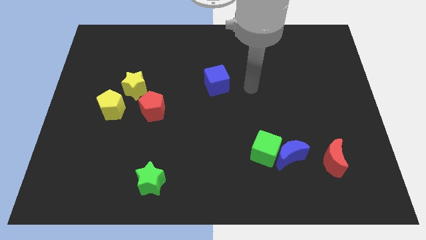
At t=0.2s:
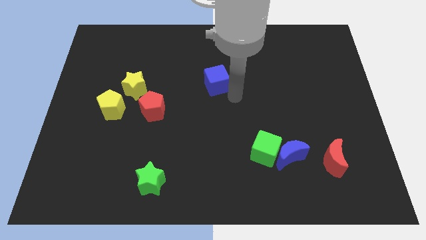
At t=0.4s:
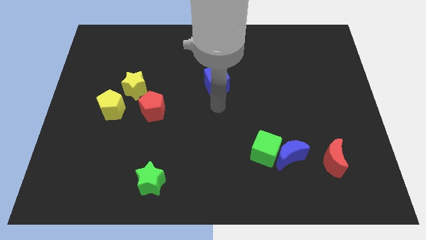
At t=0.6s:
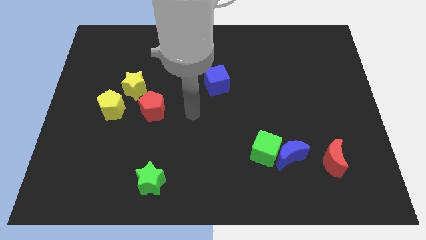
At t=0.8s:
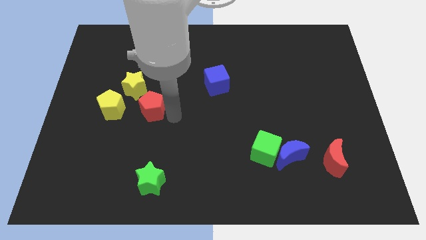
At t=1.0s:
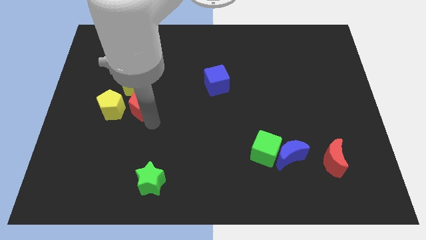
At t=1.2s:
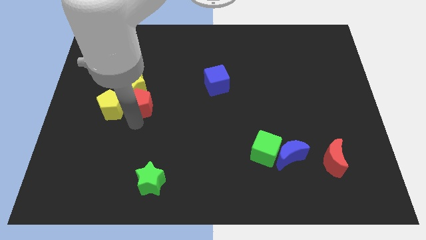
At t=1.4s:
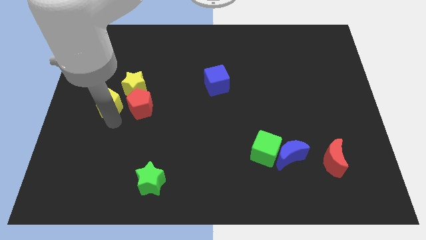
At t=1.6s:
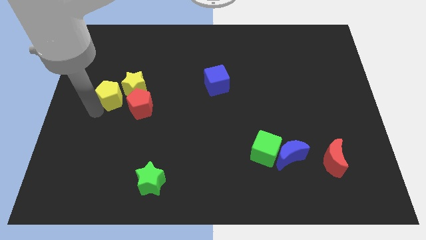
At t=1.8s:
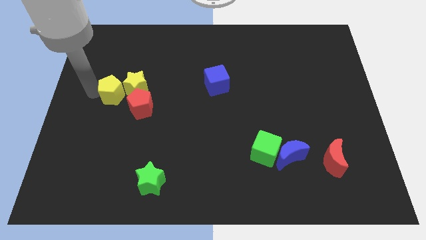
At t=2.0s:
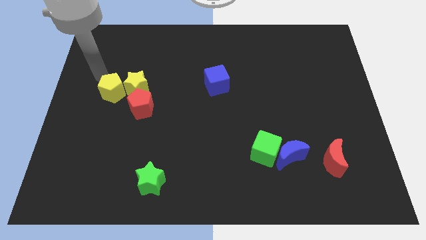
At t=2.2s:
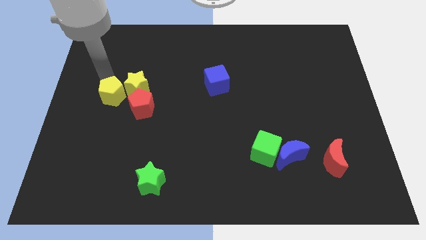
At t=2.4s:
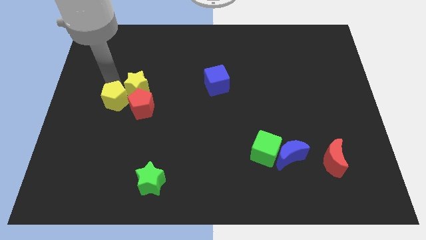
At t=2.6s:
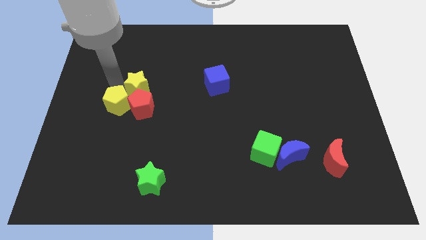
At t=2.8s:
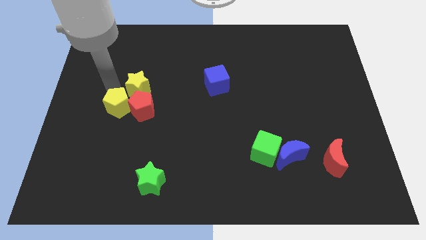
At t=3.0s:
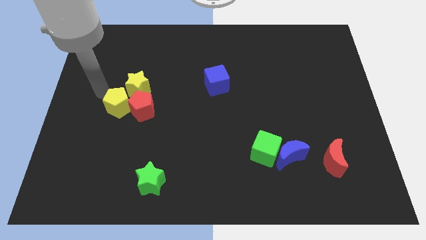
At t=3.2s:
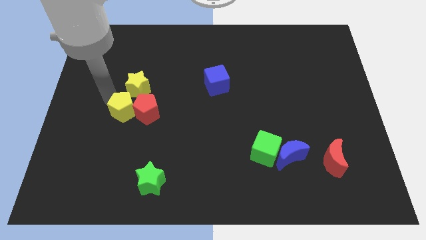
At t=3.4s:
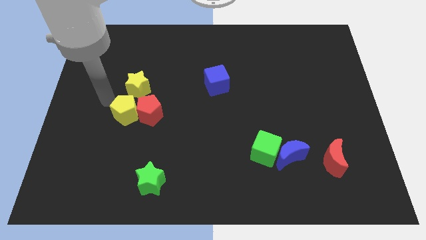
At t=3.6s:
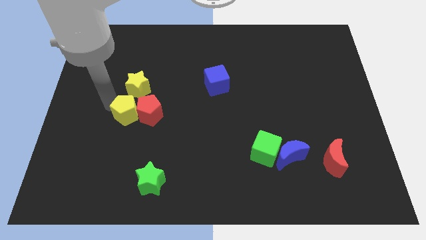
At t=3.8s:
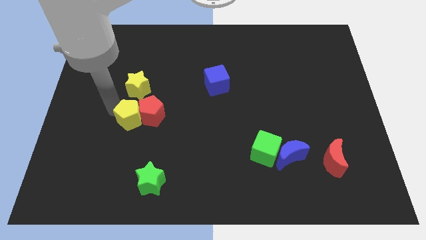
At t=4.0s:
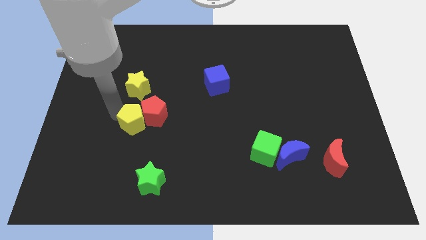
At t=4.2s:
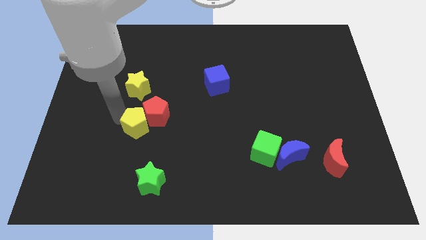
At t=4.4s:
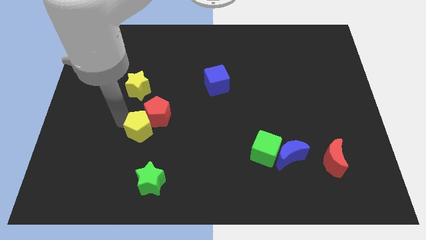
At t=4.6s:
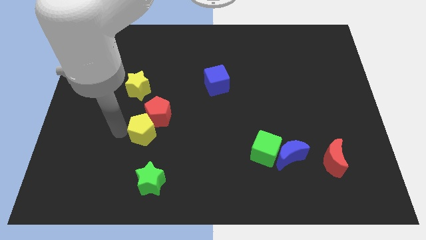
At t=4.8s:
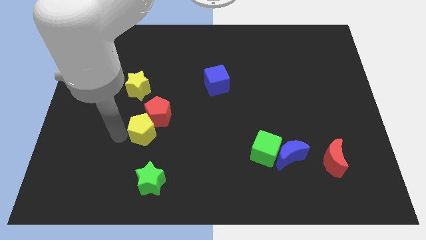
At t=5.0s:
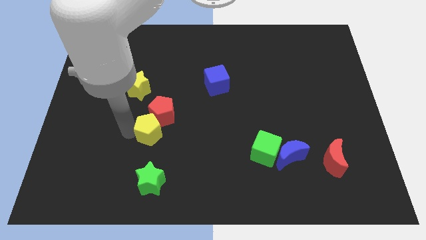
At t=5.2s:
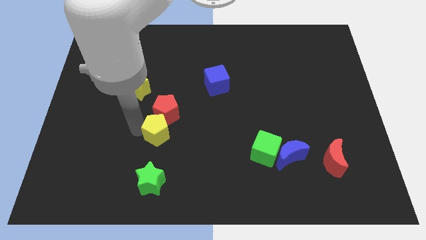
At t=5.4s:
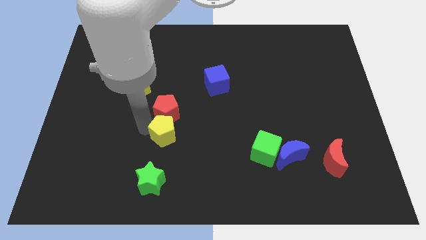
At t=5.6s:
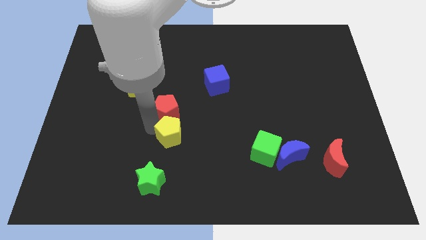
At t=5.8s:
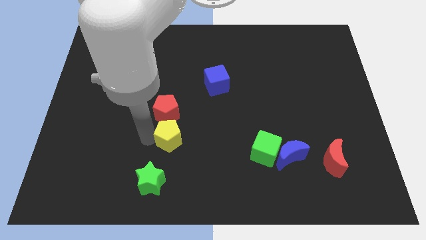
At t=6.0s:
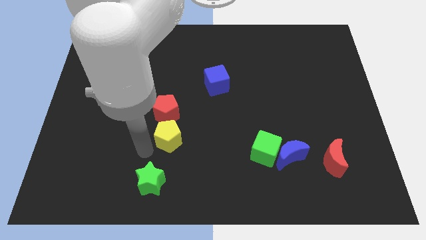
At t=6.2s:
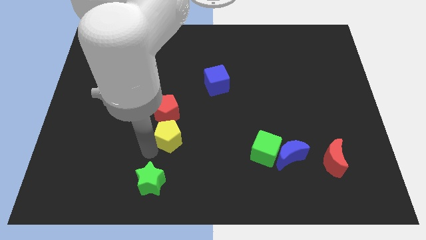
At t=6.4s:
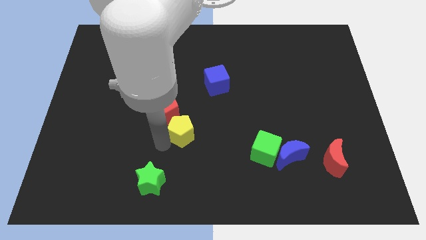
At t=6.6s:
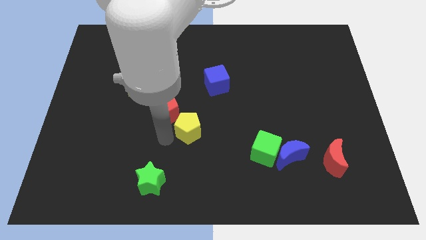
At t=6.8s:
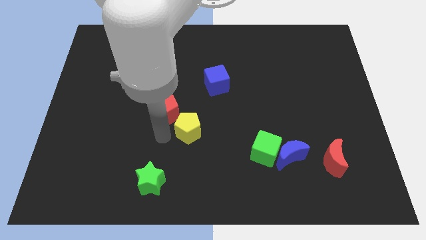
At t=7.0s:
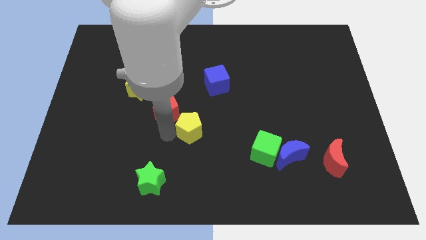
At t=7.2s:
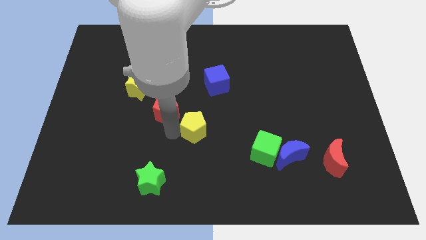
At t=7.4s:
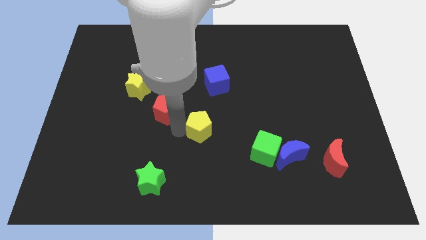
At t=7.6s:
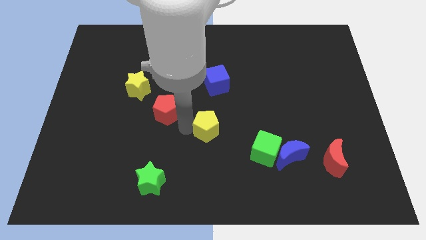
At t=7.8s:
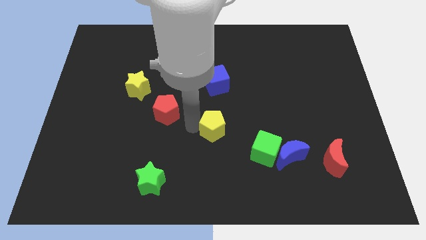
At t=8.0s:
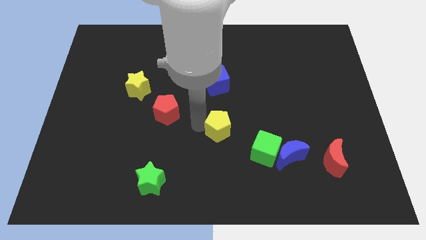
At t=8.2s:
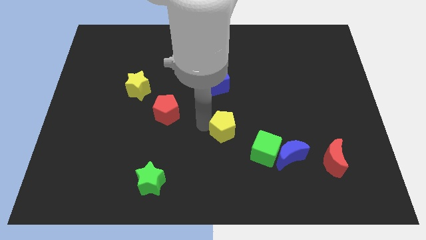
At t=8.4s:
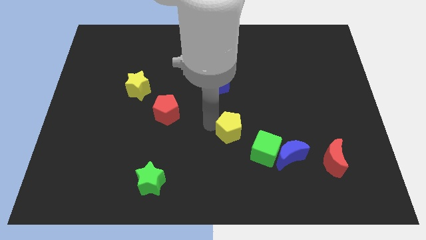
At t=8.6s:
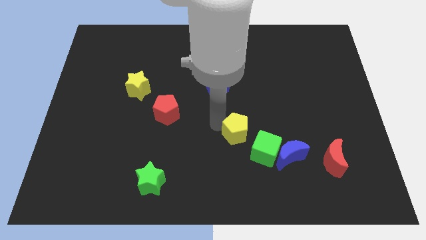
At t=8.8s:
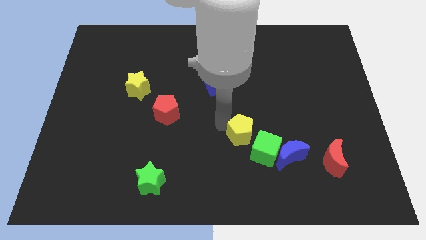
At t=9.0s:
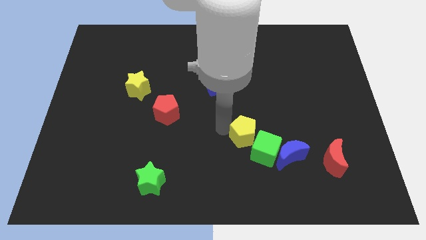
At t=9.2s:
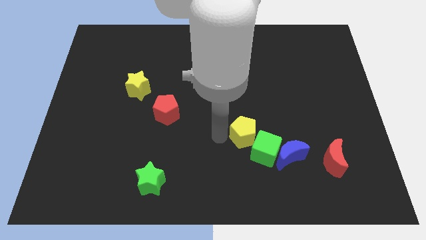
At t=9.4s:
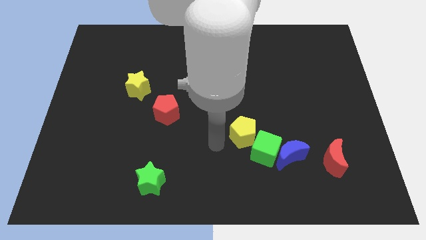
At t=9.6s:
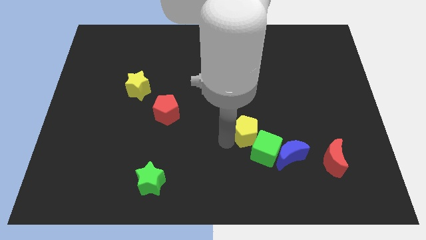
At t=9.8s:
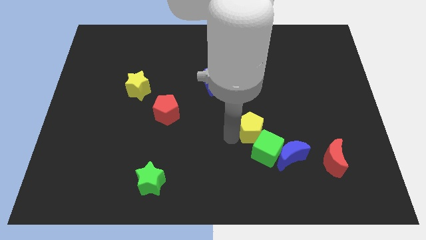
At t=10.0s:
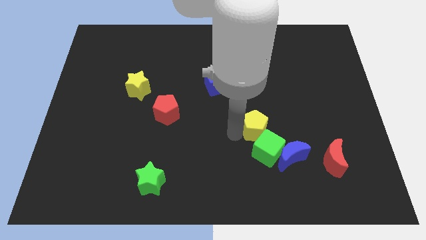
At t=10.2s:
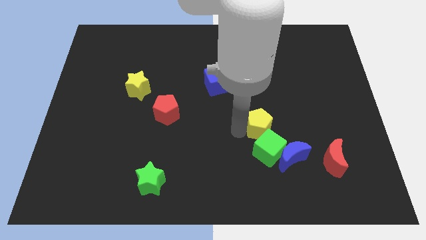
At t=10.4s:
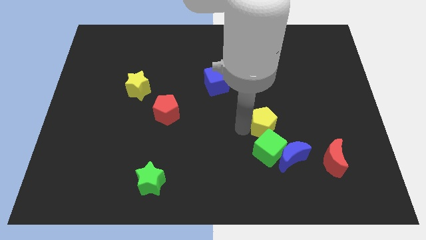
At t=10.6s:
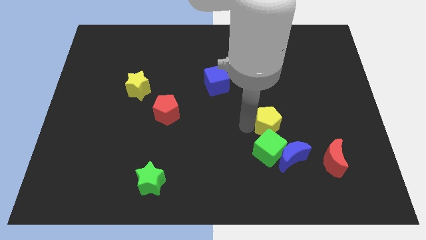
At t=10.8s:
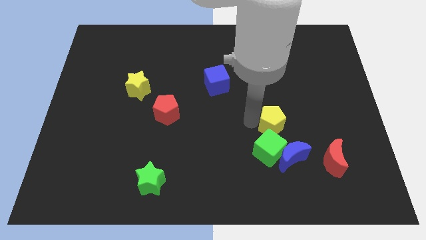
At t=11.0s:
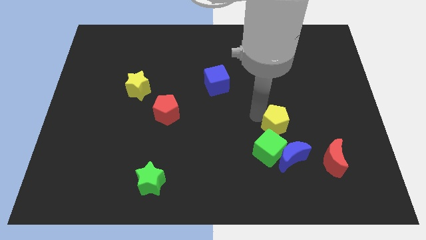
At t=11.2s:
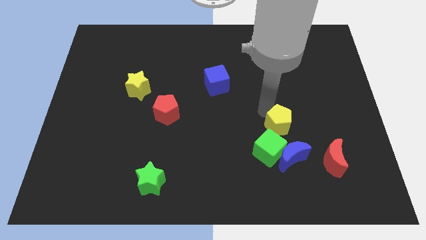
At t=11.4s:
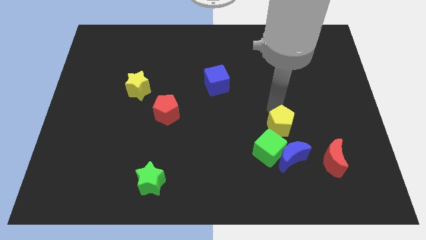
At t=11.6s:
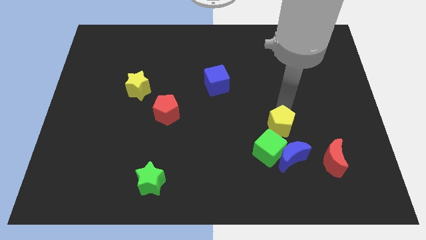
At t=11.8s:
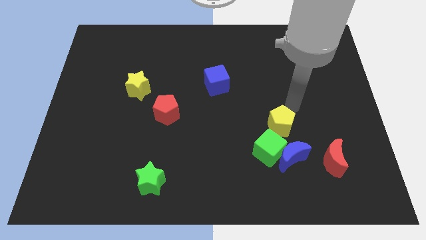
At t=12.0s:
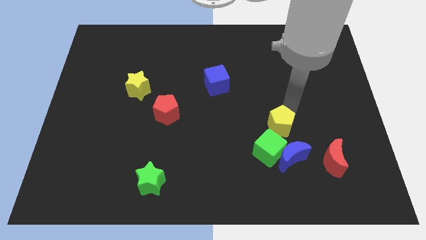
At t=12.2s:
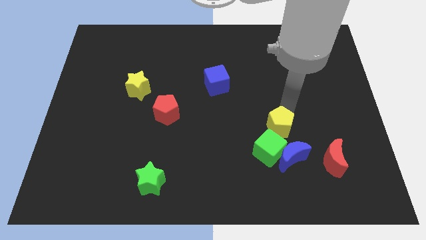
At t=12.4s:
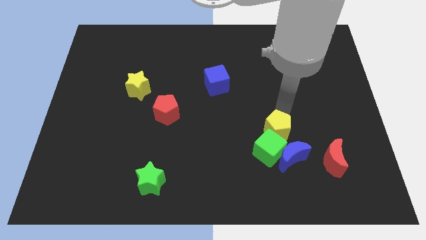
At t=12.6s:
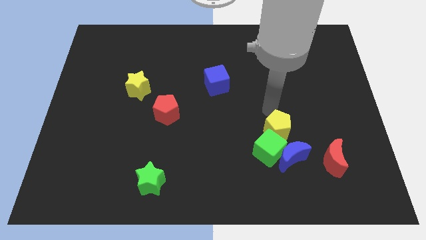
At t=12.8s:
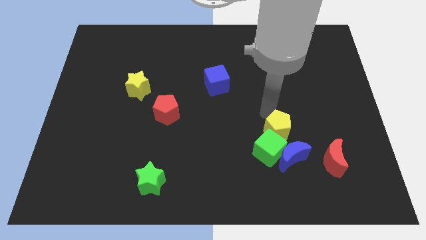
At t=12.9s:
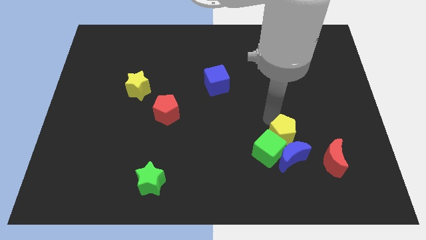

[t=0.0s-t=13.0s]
push the yellow pentagon towards the blue moon

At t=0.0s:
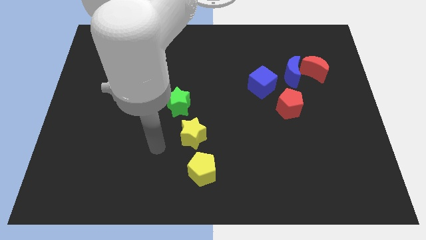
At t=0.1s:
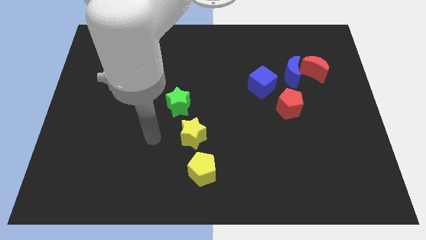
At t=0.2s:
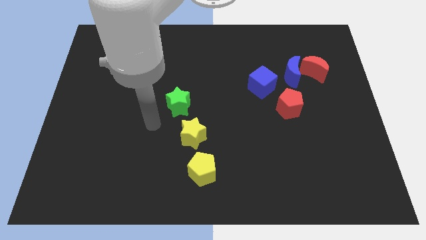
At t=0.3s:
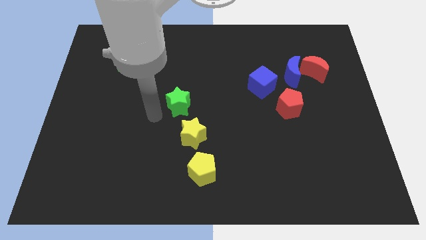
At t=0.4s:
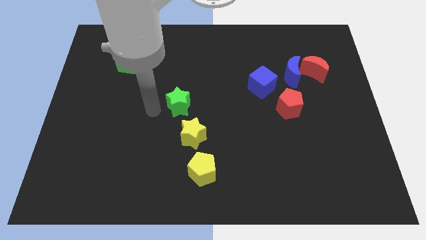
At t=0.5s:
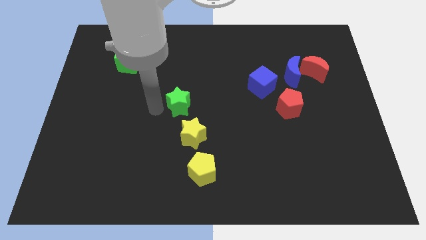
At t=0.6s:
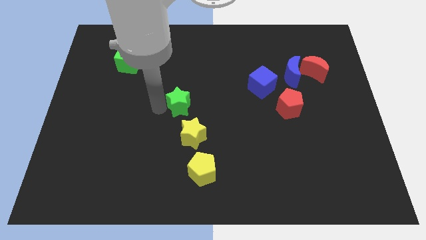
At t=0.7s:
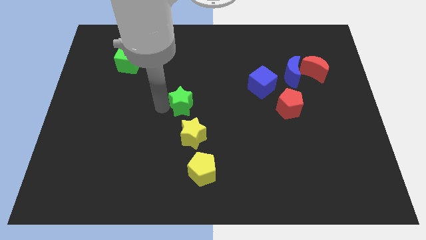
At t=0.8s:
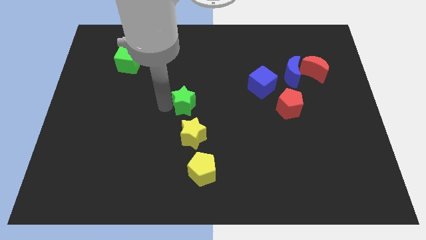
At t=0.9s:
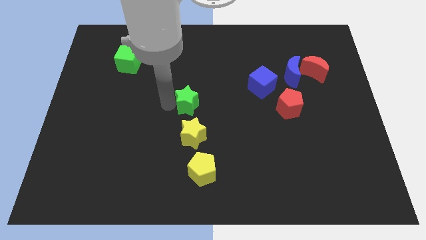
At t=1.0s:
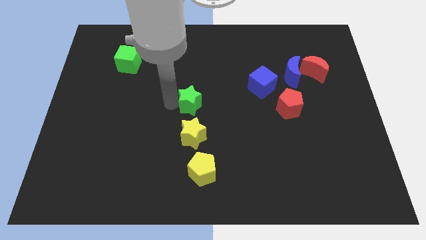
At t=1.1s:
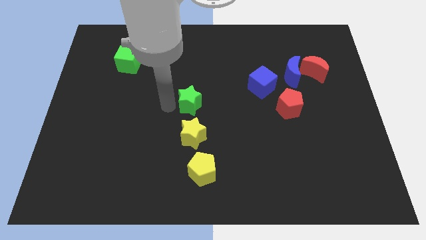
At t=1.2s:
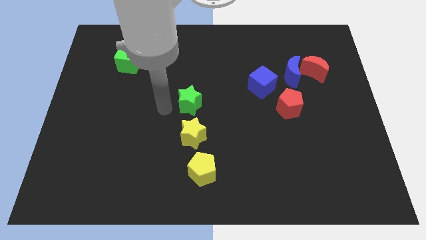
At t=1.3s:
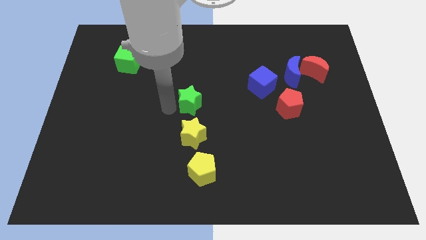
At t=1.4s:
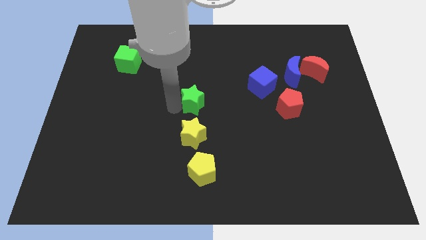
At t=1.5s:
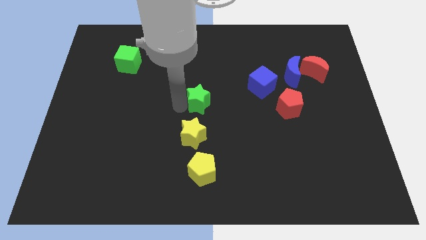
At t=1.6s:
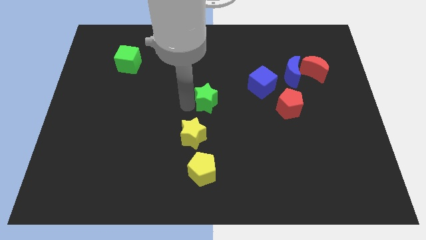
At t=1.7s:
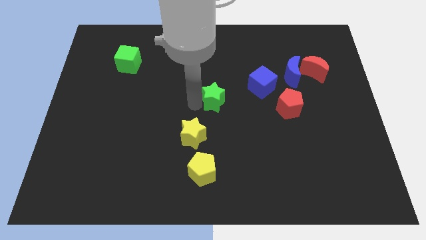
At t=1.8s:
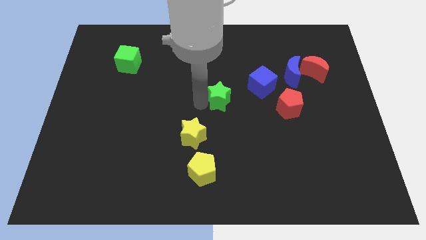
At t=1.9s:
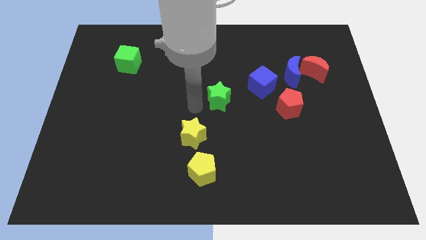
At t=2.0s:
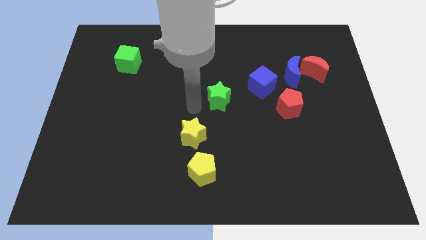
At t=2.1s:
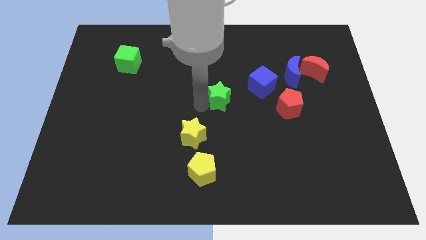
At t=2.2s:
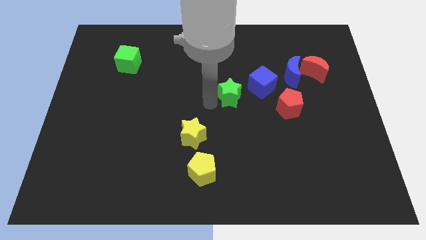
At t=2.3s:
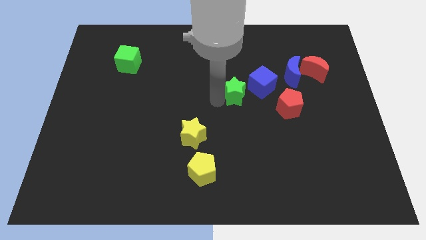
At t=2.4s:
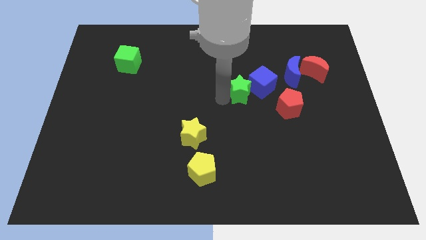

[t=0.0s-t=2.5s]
move the green star next to the blue cube
